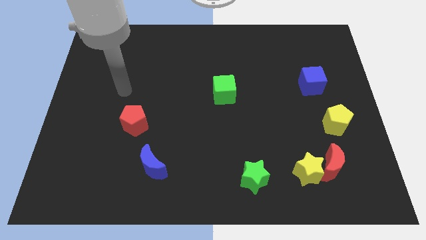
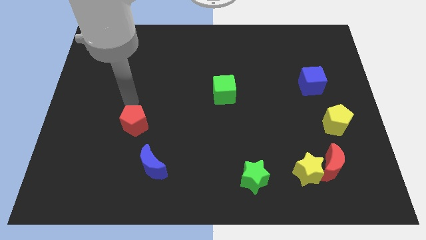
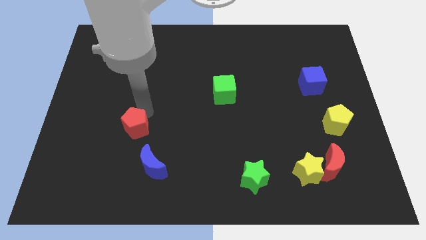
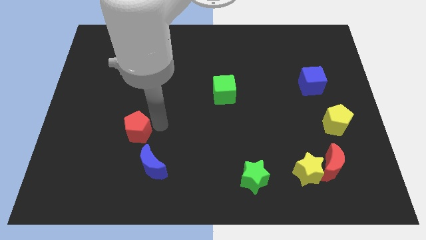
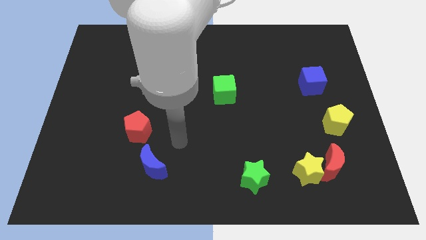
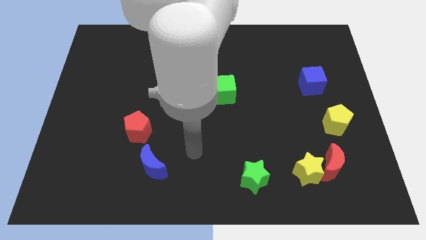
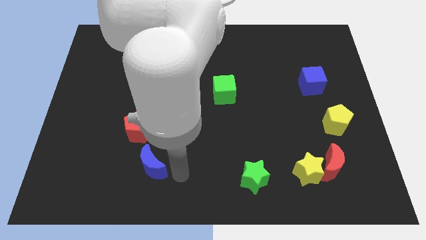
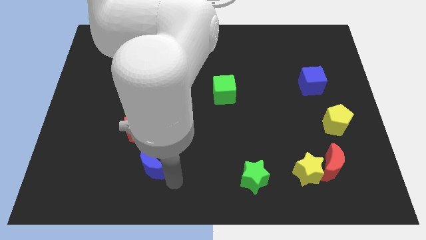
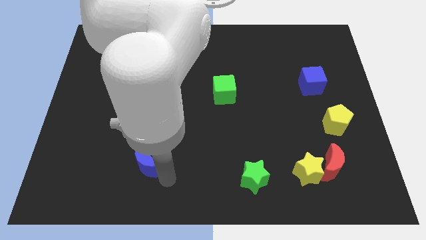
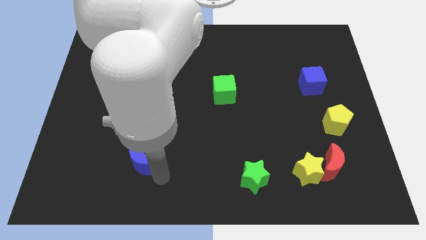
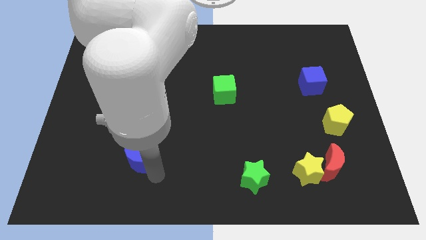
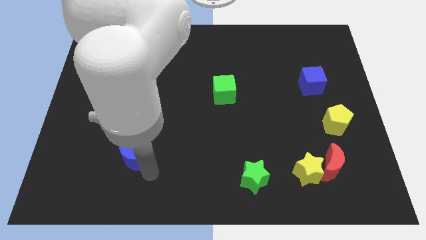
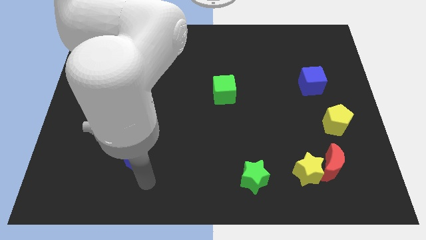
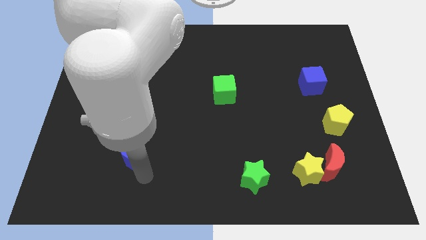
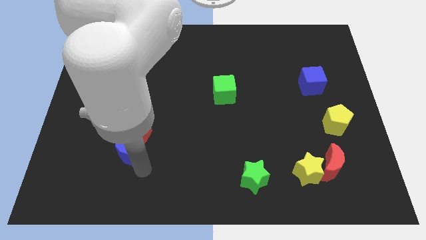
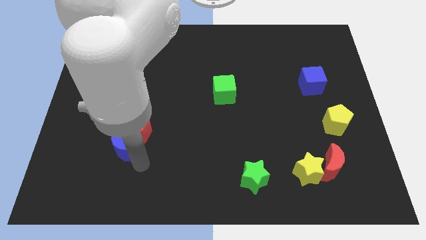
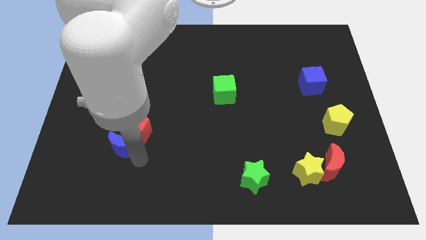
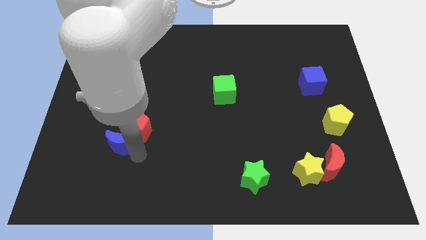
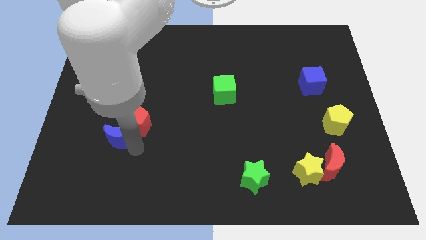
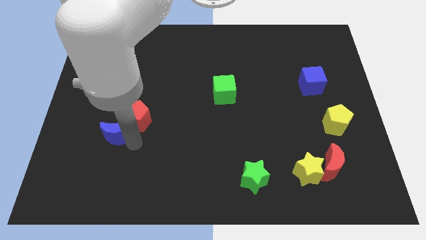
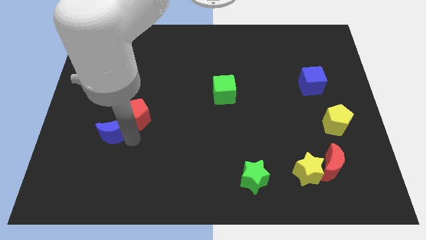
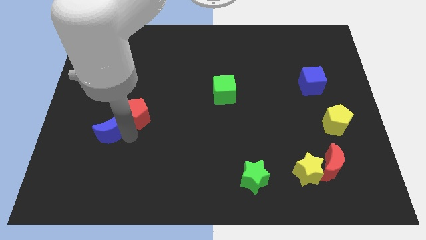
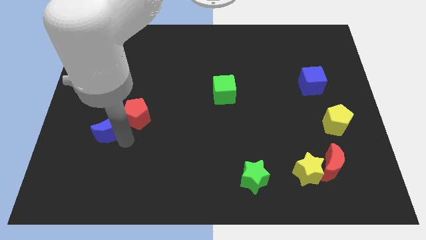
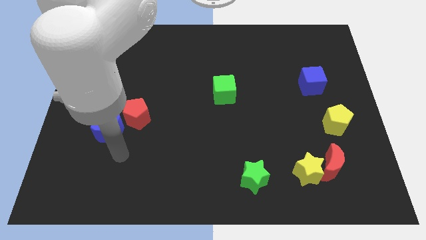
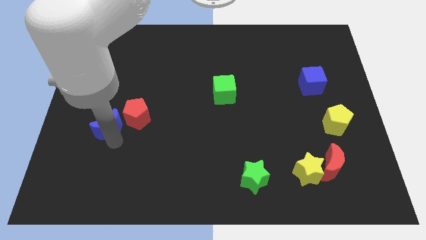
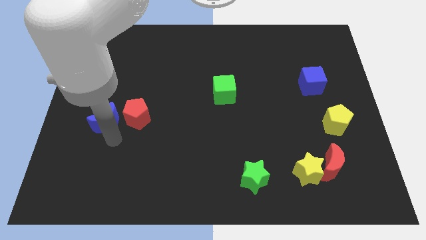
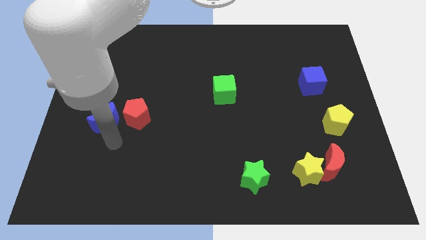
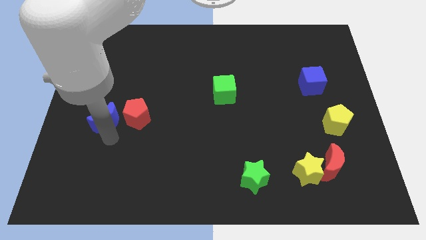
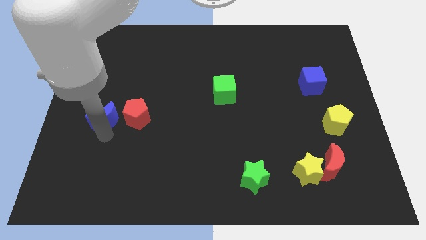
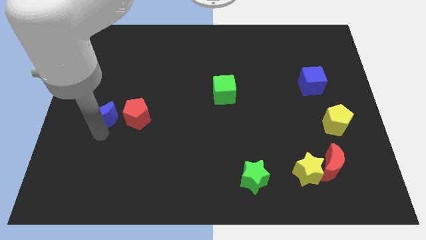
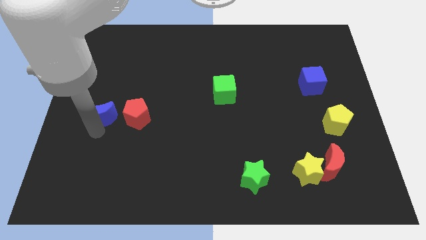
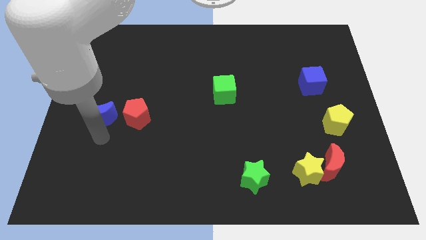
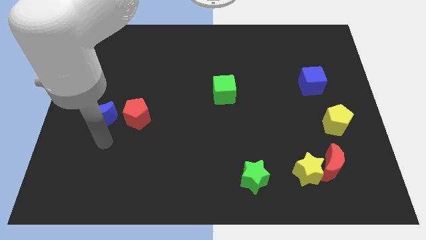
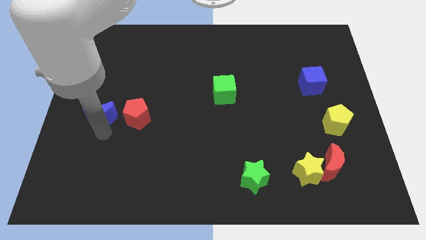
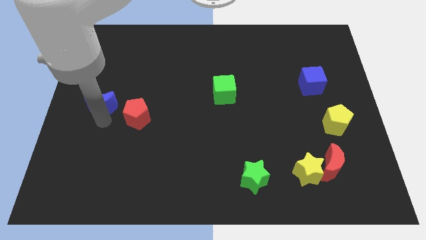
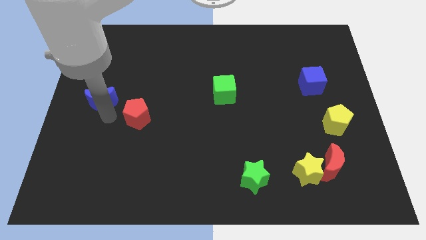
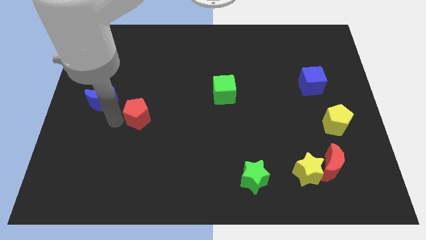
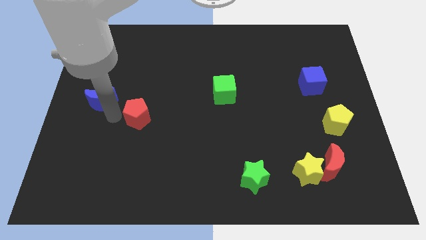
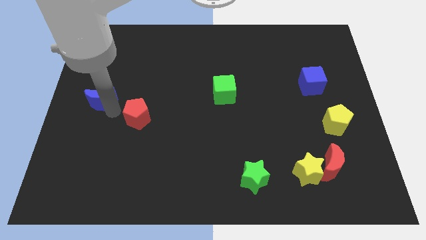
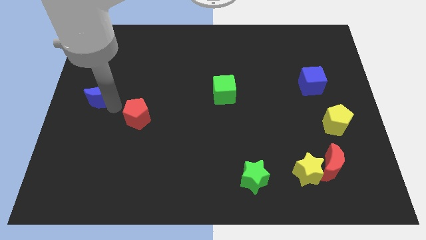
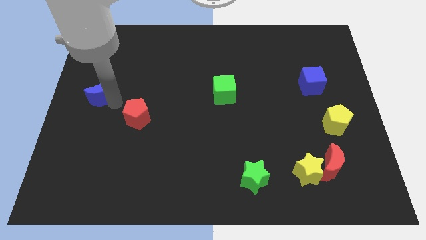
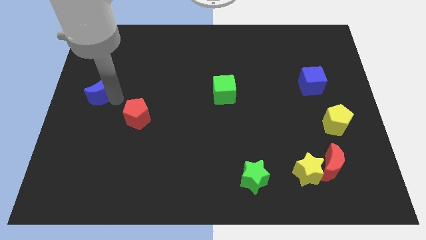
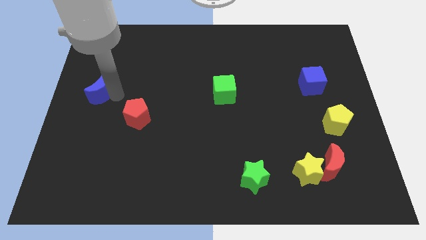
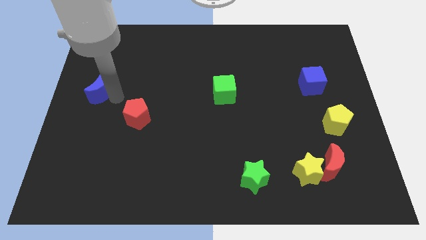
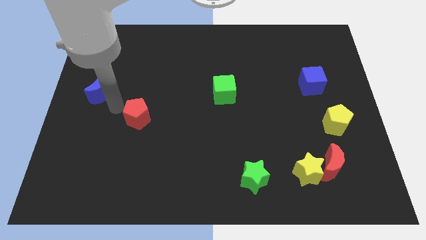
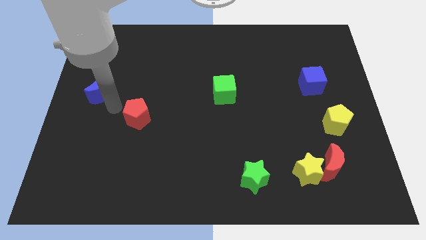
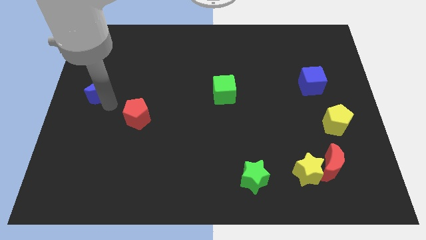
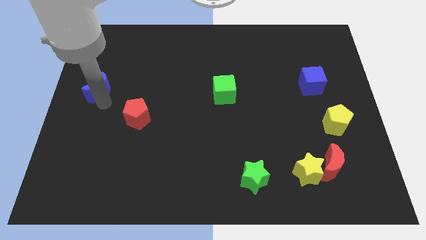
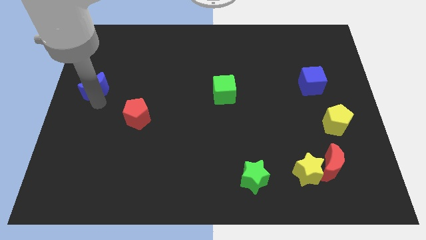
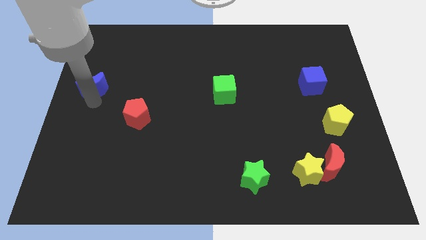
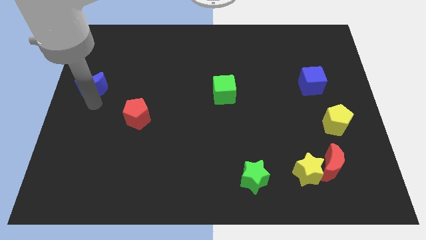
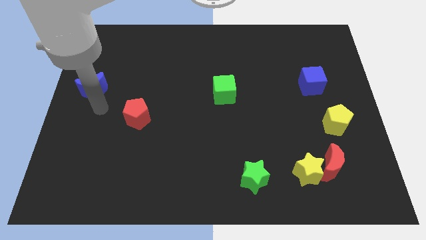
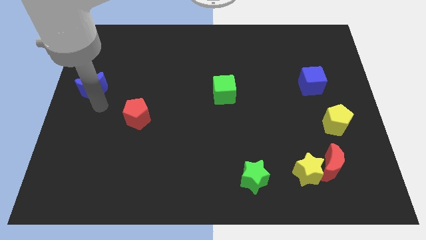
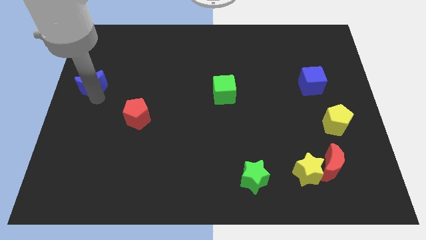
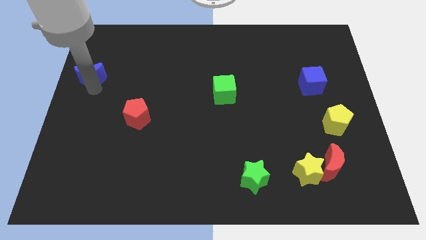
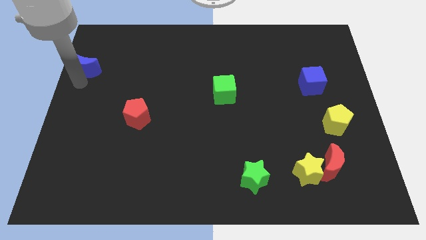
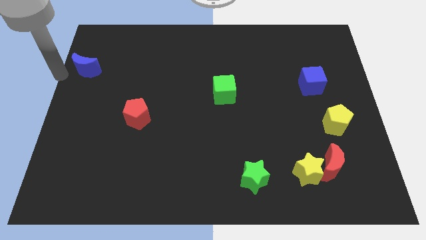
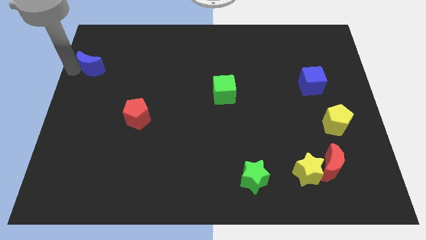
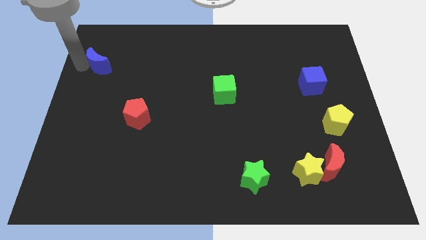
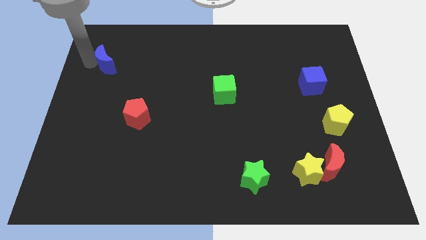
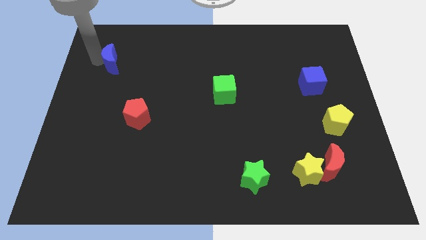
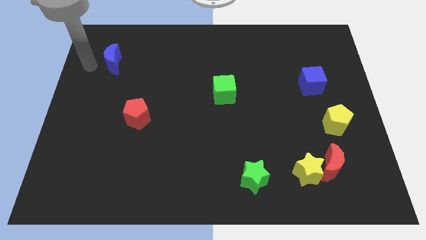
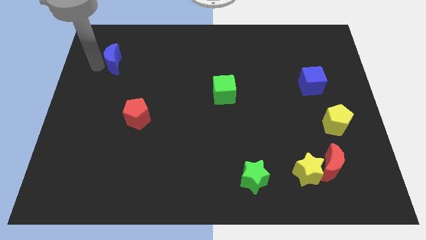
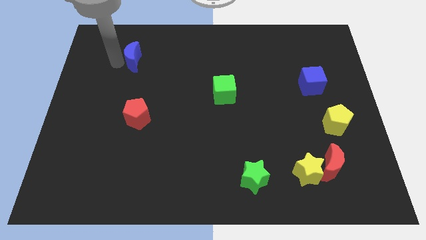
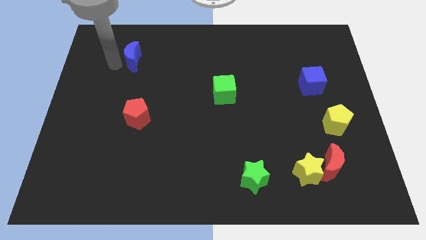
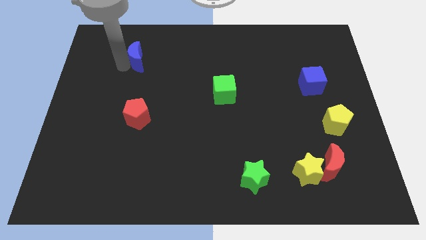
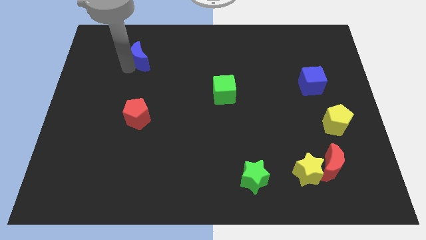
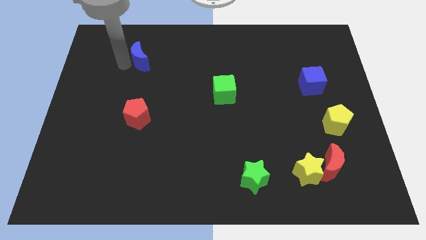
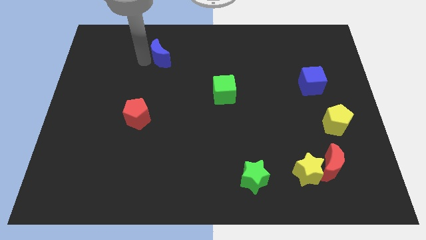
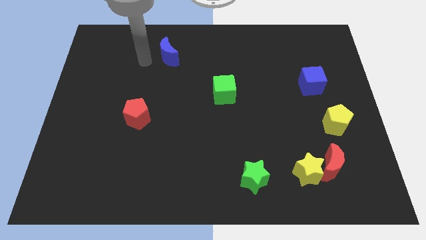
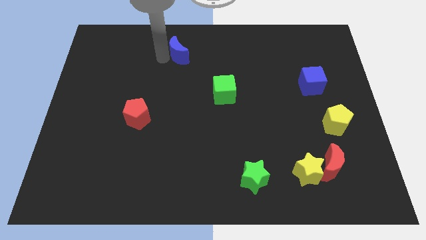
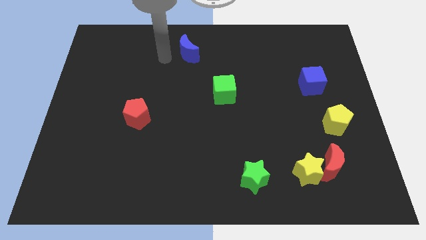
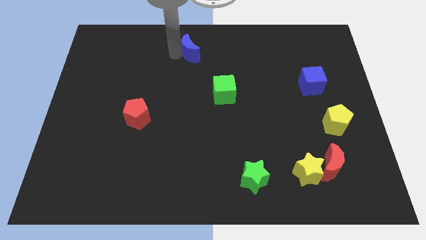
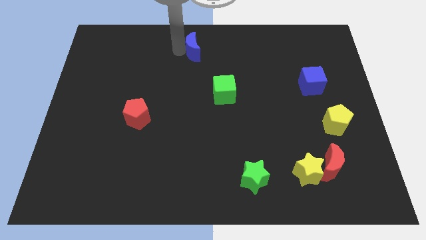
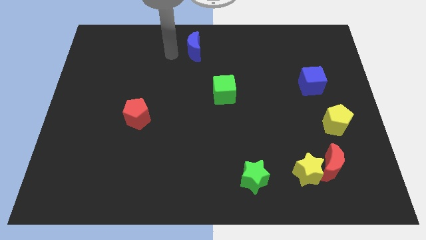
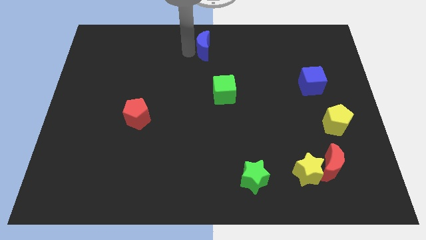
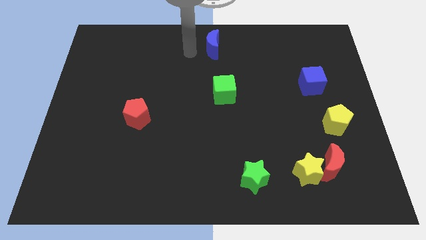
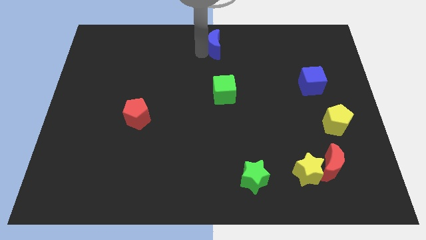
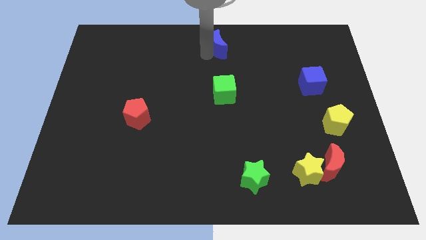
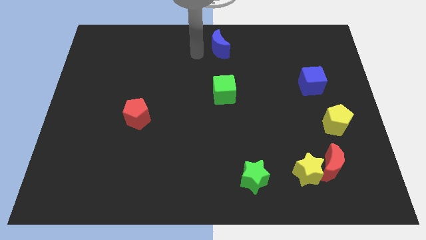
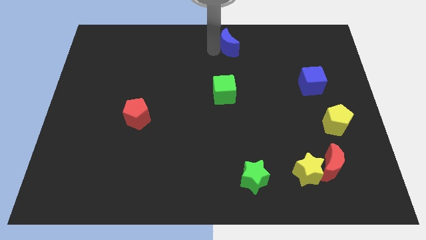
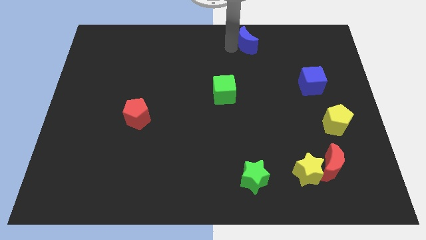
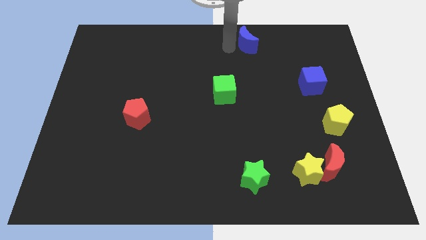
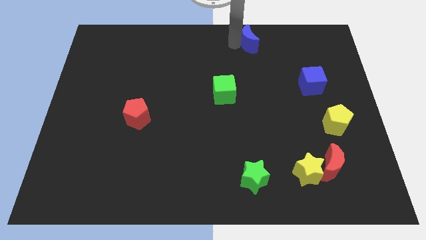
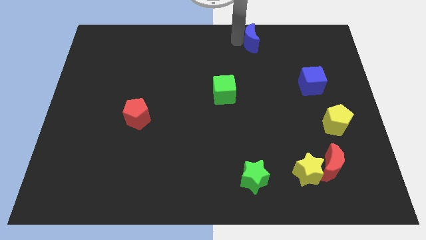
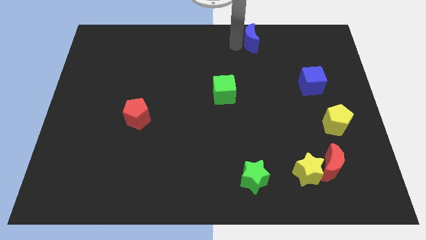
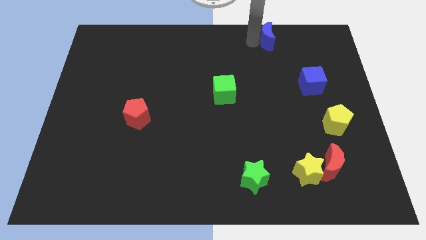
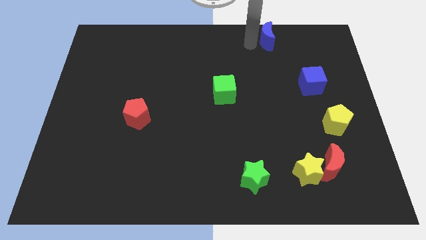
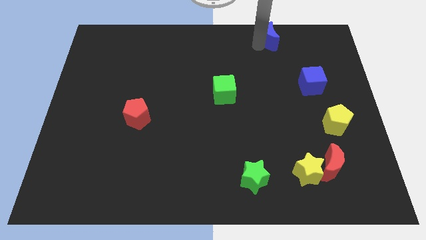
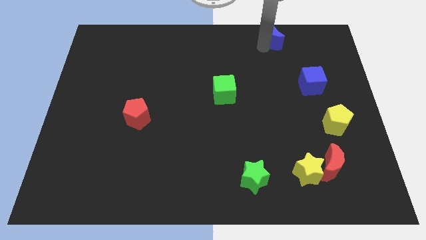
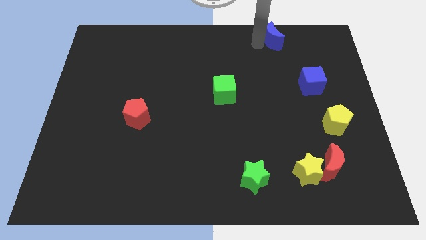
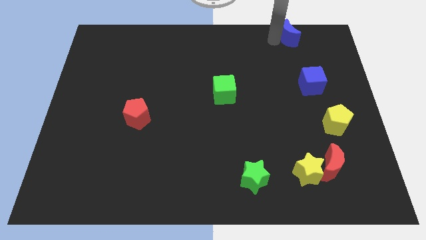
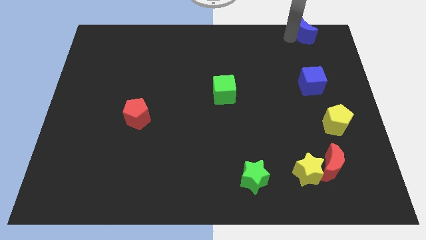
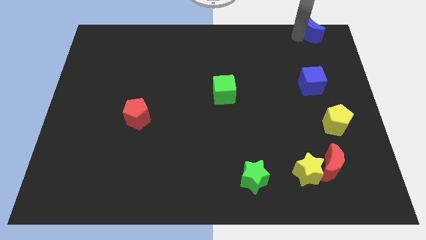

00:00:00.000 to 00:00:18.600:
move the blue moon to the upper right corner
